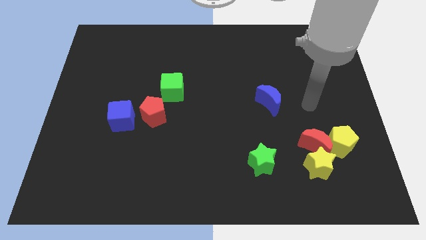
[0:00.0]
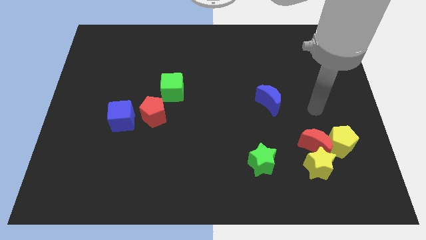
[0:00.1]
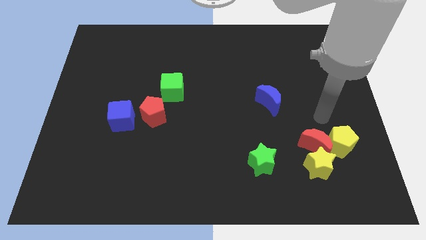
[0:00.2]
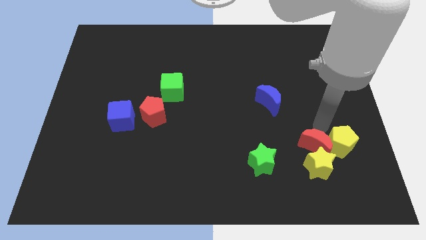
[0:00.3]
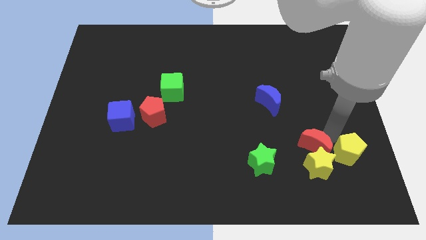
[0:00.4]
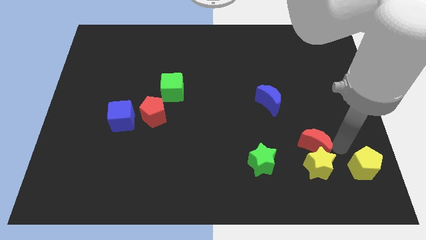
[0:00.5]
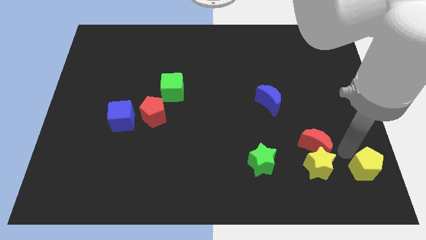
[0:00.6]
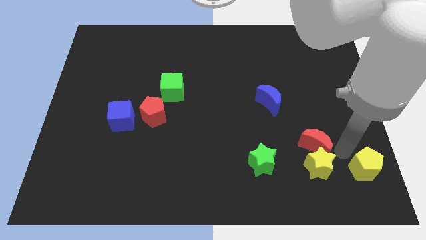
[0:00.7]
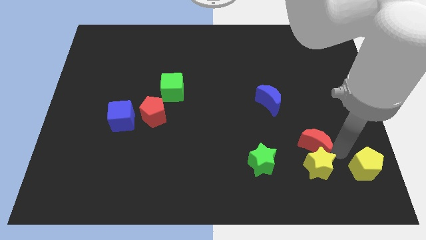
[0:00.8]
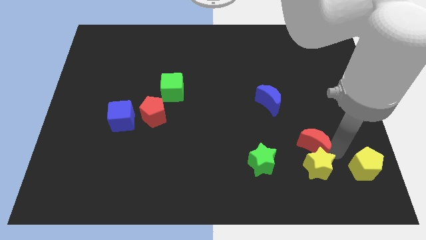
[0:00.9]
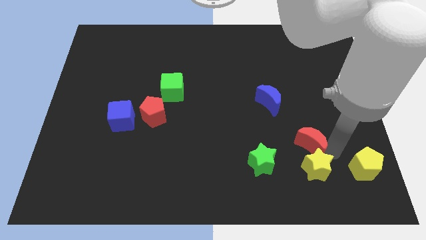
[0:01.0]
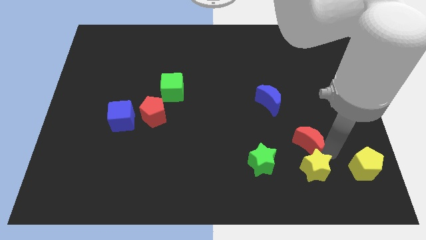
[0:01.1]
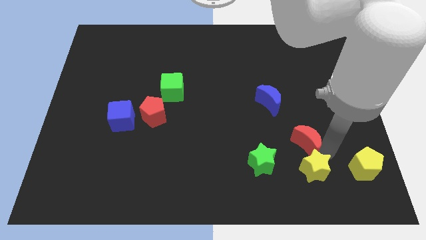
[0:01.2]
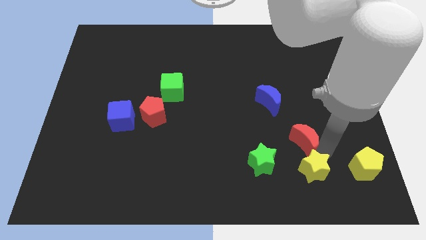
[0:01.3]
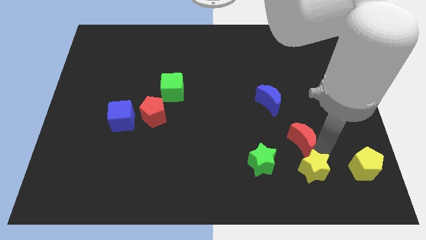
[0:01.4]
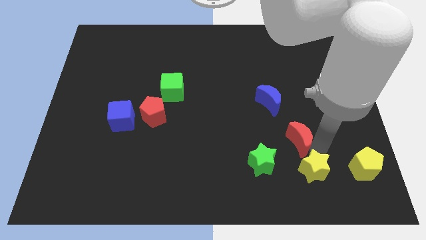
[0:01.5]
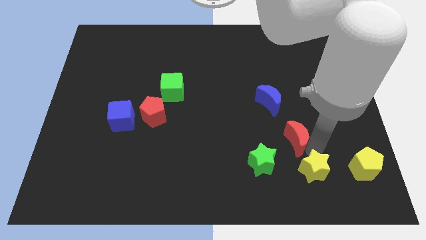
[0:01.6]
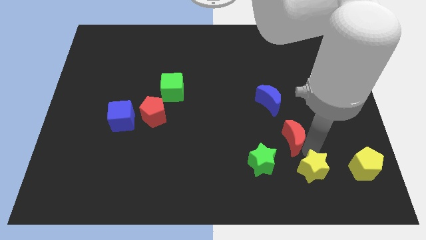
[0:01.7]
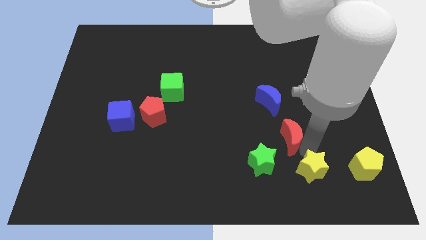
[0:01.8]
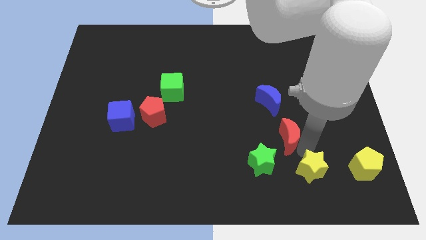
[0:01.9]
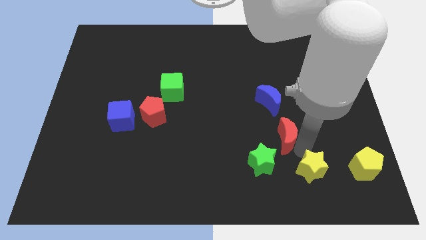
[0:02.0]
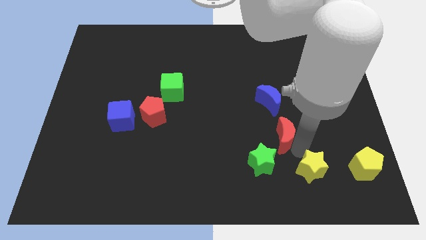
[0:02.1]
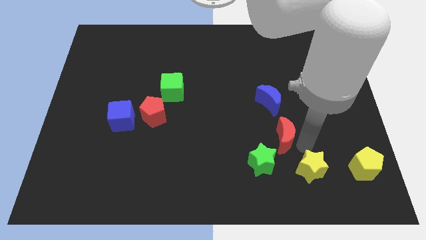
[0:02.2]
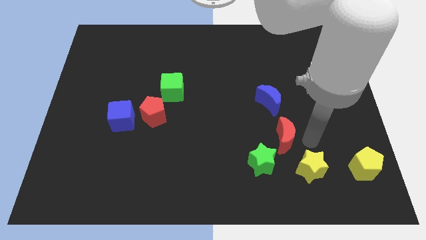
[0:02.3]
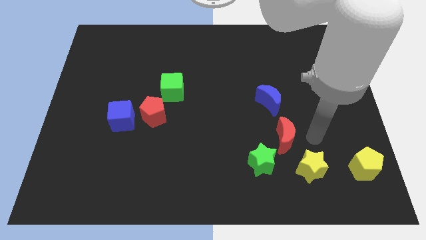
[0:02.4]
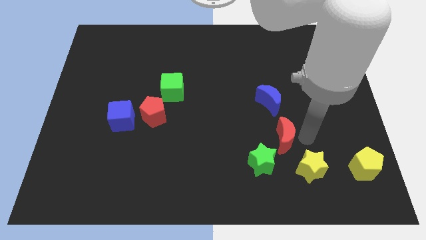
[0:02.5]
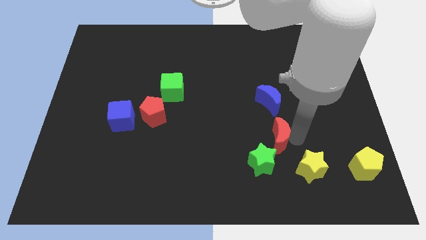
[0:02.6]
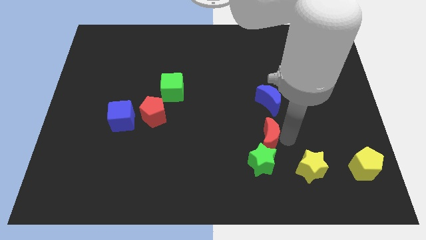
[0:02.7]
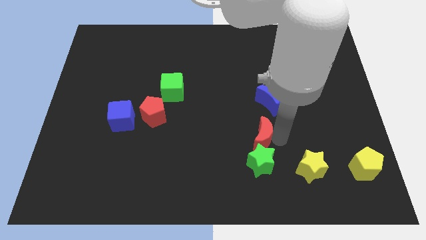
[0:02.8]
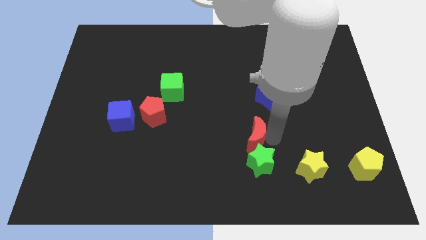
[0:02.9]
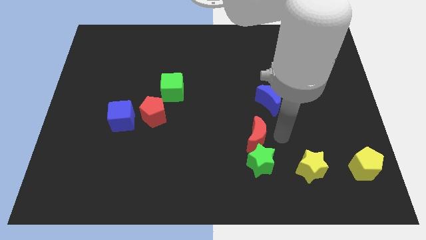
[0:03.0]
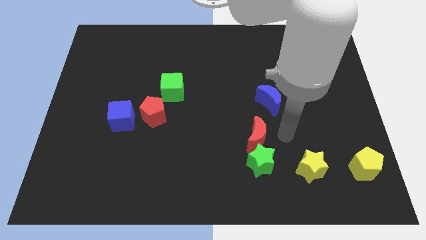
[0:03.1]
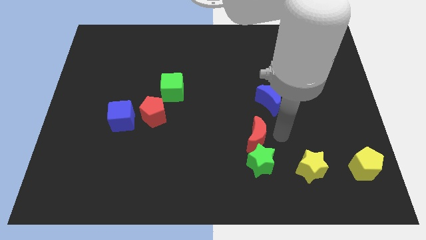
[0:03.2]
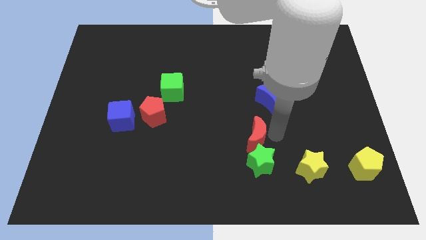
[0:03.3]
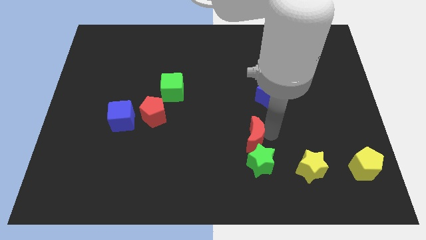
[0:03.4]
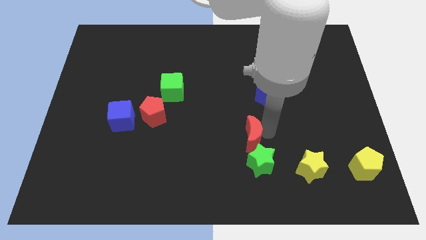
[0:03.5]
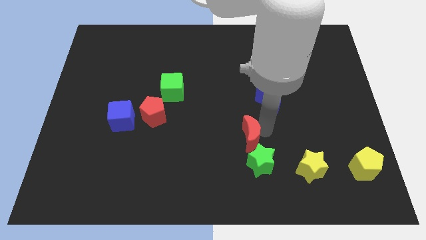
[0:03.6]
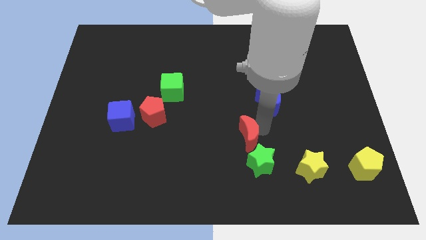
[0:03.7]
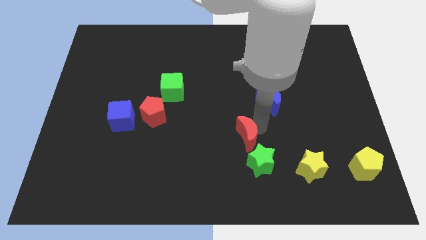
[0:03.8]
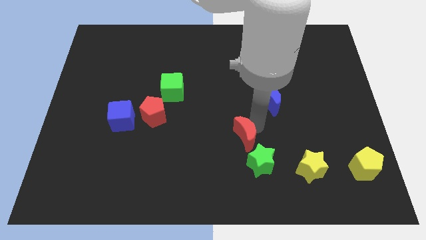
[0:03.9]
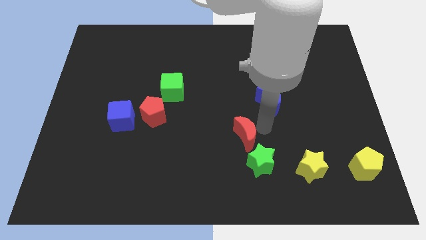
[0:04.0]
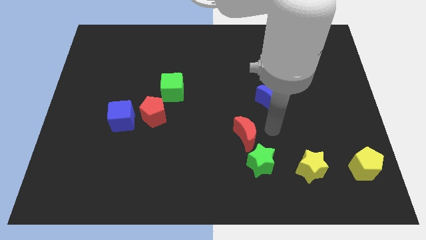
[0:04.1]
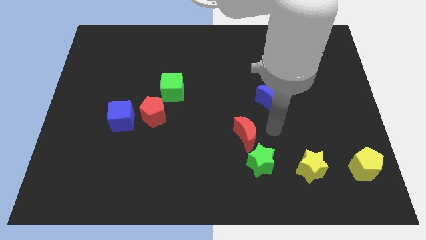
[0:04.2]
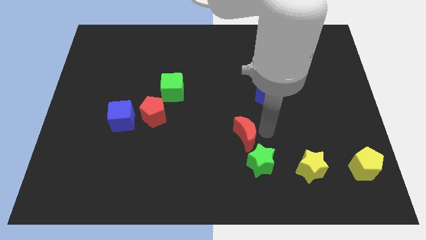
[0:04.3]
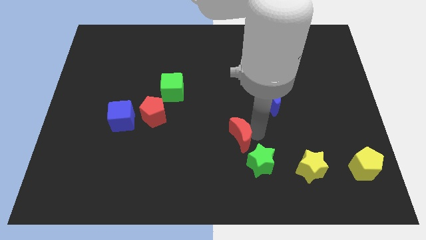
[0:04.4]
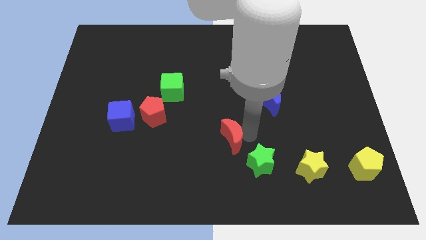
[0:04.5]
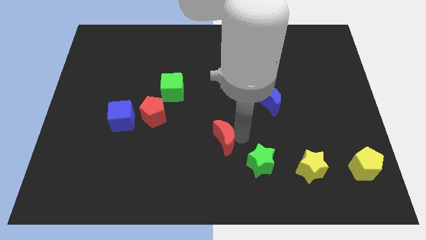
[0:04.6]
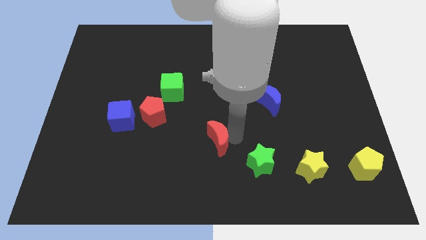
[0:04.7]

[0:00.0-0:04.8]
slide the red moon left

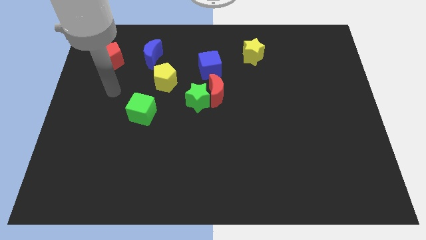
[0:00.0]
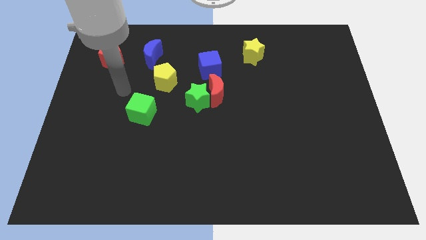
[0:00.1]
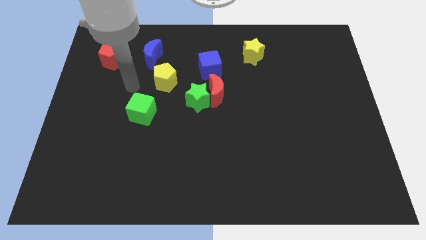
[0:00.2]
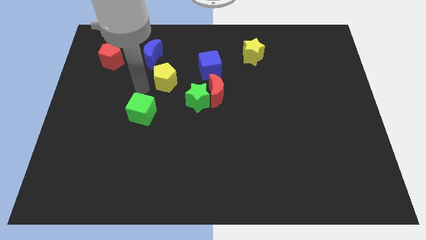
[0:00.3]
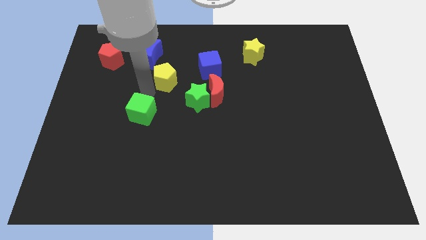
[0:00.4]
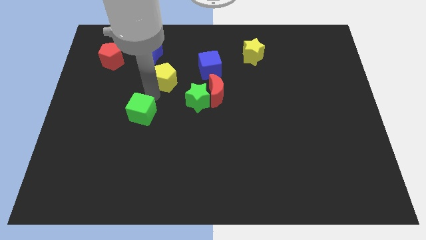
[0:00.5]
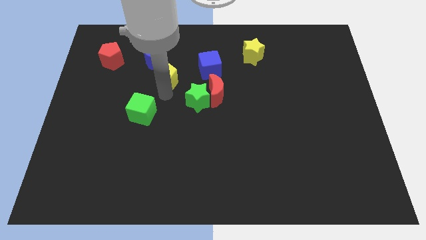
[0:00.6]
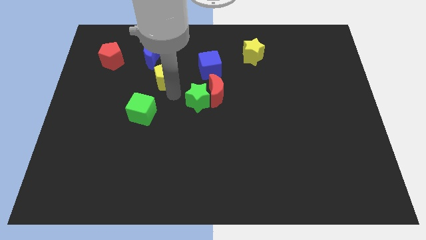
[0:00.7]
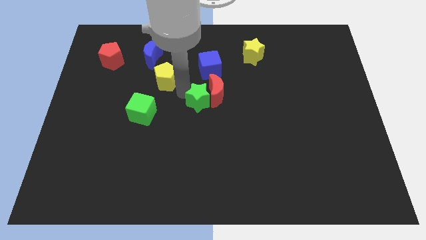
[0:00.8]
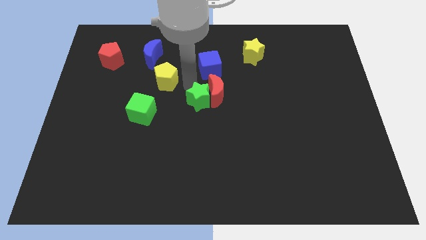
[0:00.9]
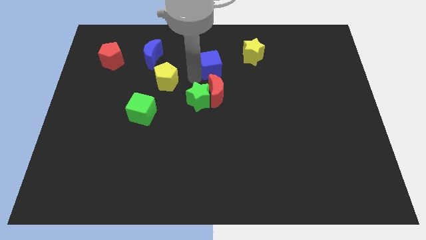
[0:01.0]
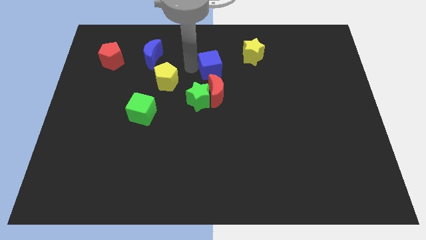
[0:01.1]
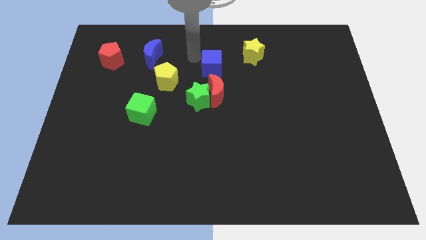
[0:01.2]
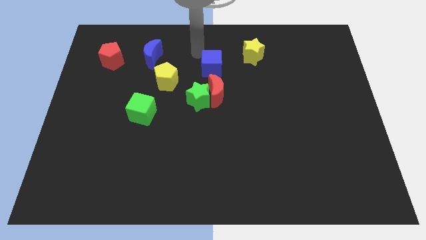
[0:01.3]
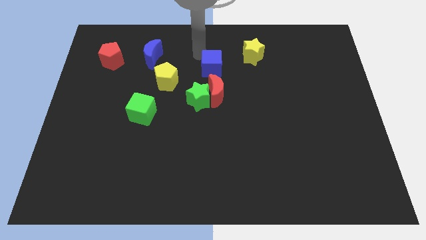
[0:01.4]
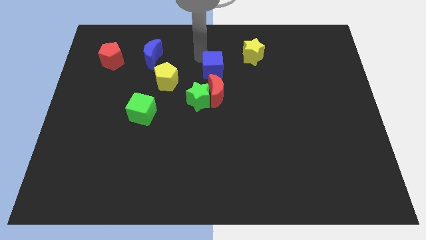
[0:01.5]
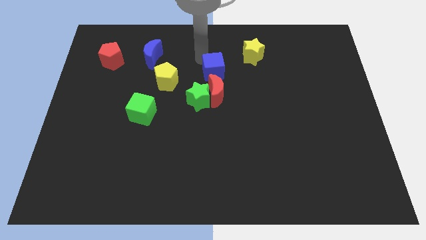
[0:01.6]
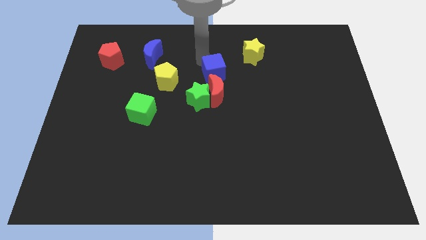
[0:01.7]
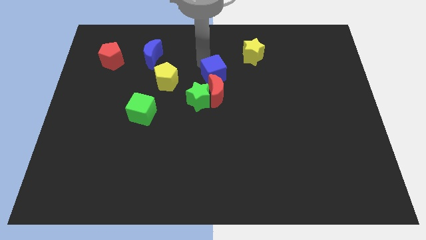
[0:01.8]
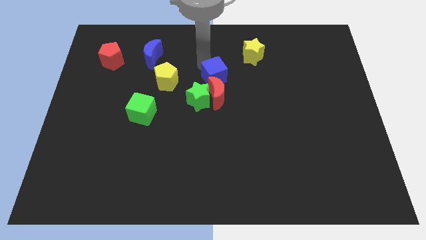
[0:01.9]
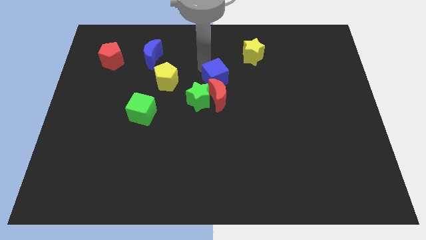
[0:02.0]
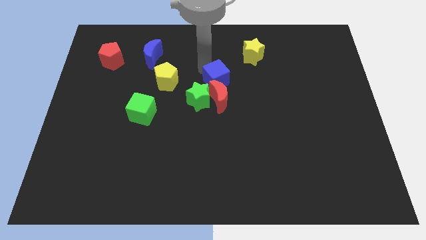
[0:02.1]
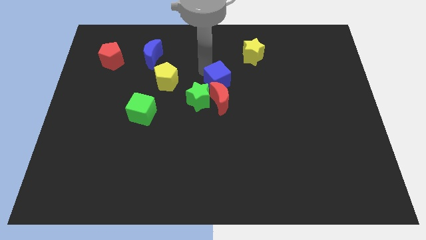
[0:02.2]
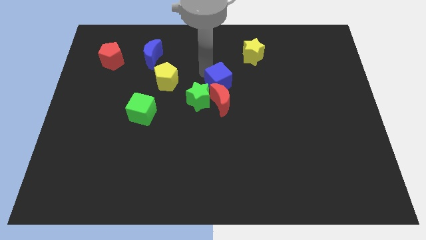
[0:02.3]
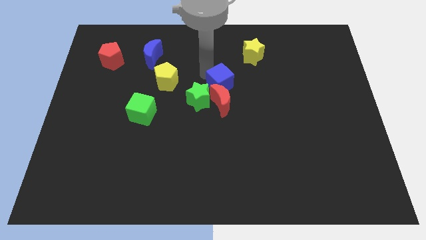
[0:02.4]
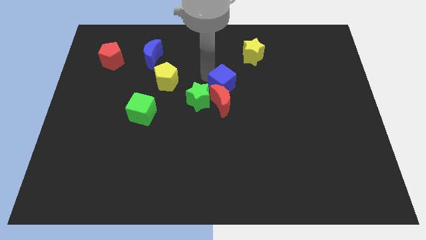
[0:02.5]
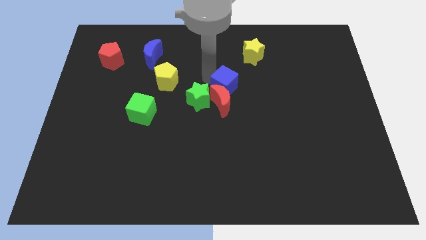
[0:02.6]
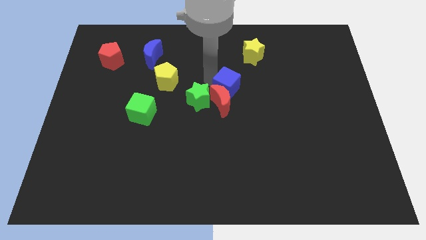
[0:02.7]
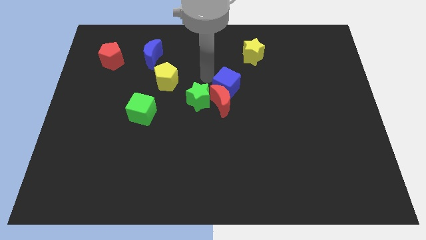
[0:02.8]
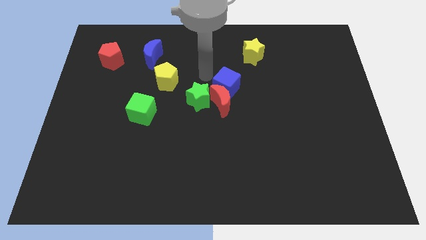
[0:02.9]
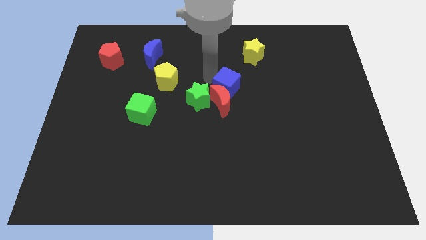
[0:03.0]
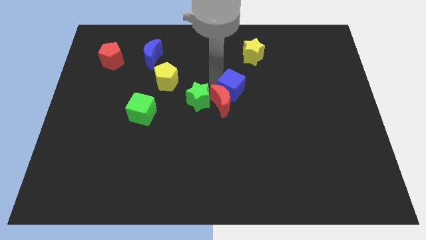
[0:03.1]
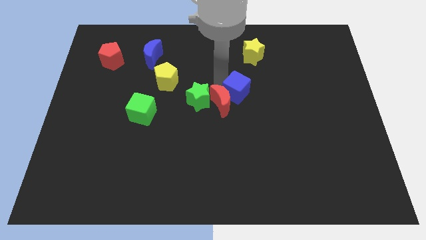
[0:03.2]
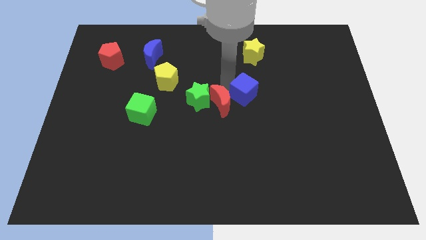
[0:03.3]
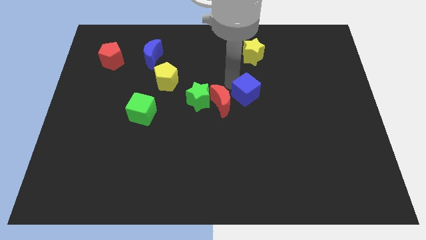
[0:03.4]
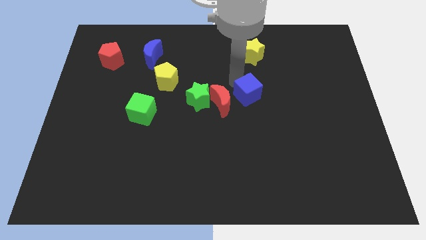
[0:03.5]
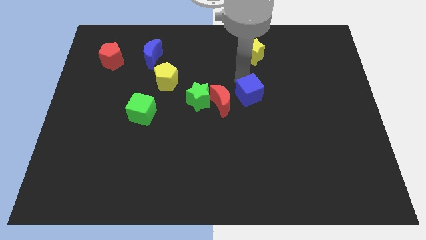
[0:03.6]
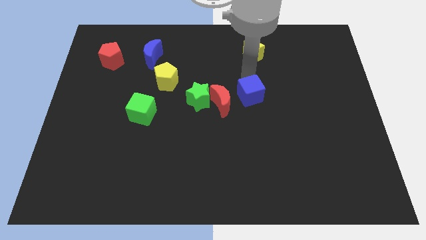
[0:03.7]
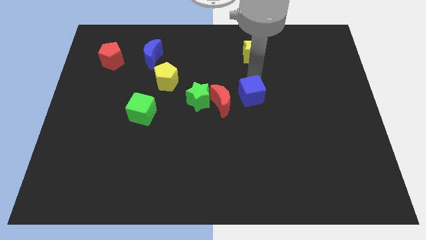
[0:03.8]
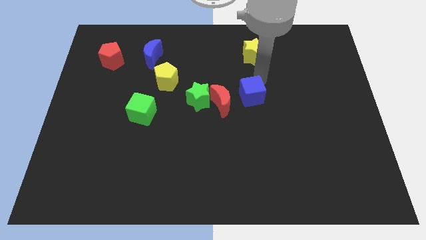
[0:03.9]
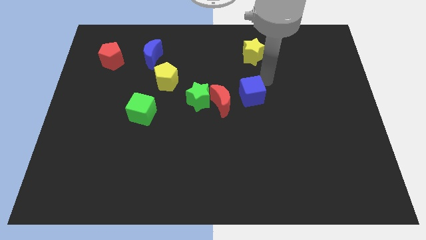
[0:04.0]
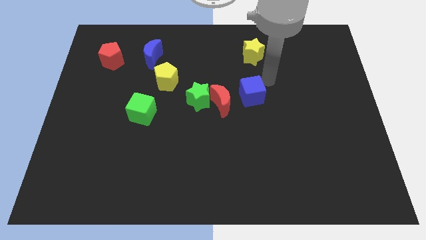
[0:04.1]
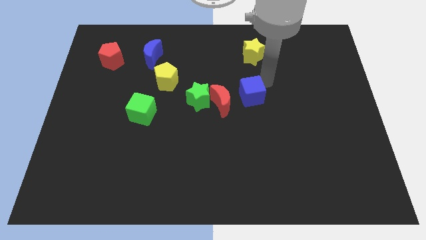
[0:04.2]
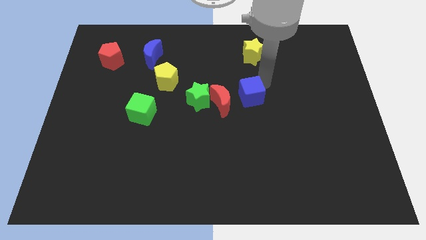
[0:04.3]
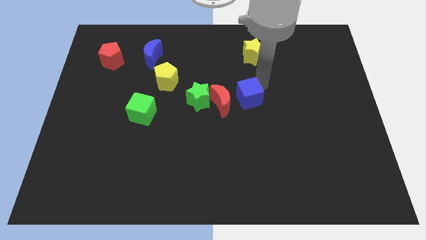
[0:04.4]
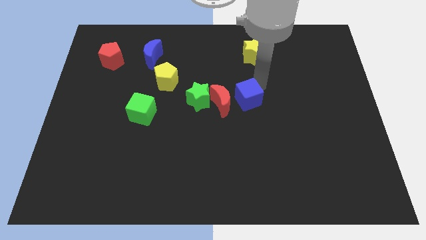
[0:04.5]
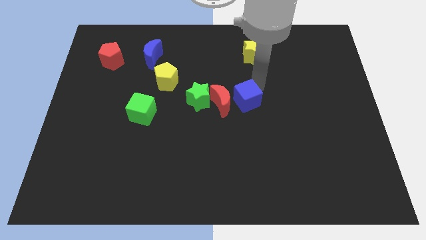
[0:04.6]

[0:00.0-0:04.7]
slide the blue cube slightly down
